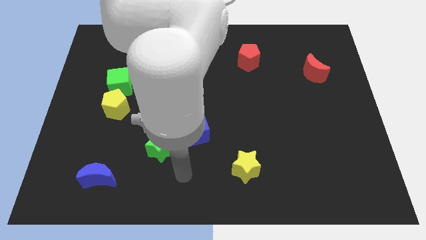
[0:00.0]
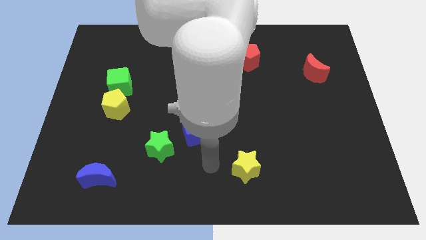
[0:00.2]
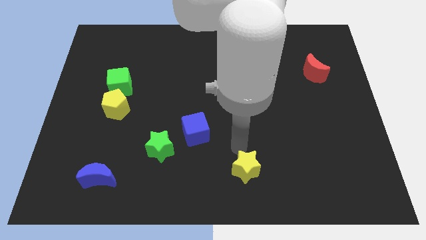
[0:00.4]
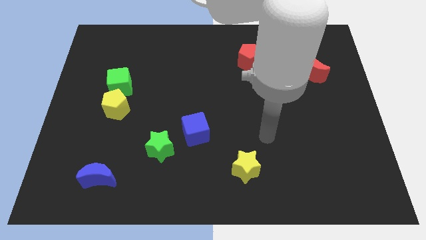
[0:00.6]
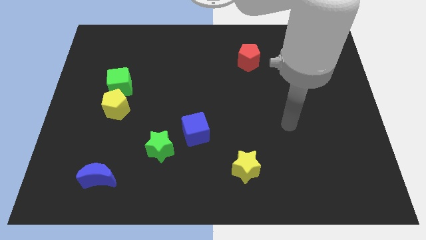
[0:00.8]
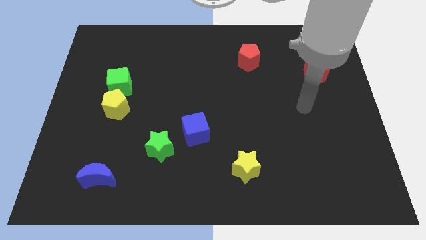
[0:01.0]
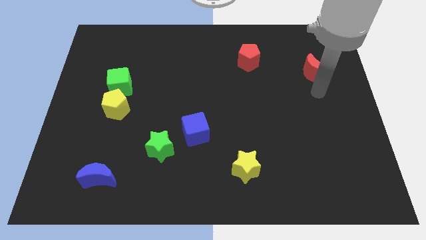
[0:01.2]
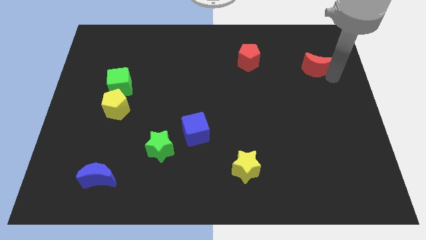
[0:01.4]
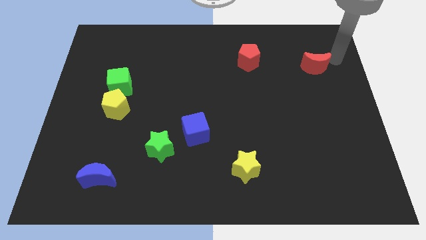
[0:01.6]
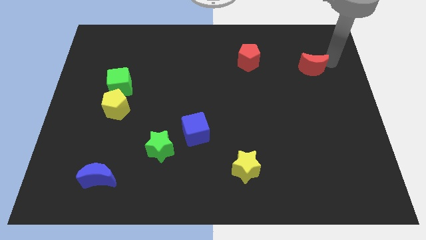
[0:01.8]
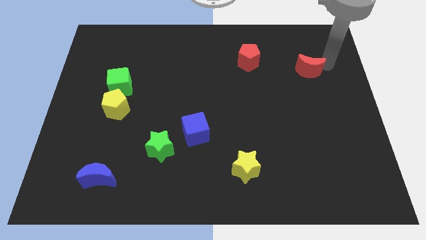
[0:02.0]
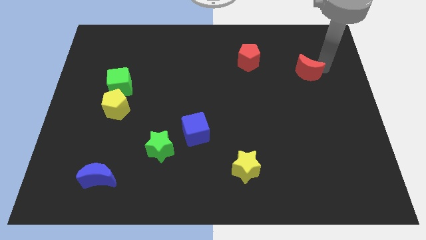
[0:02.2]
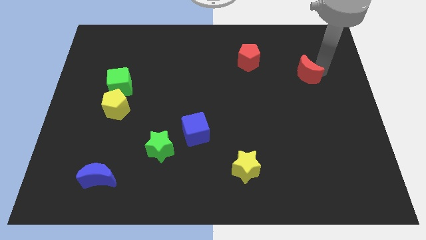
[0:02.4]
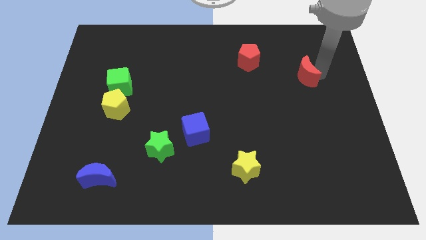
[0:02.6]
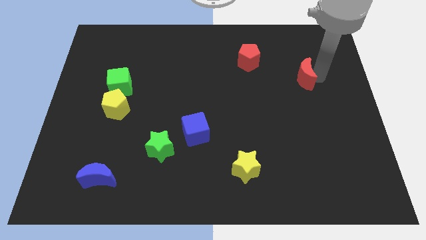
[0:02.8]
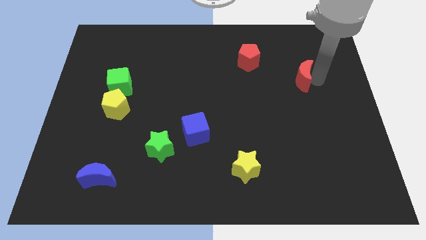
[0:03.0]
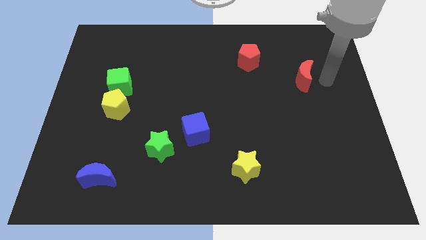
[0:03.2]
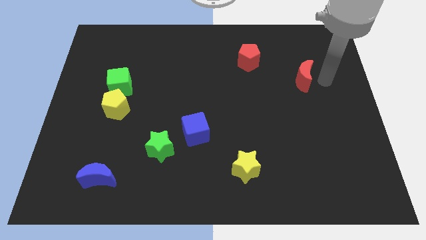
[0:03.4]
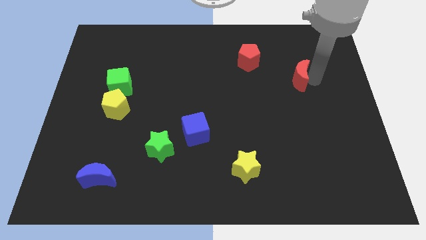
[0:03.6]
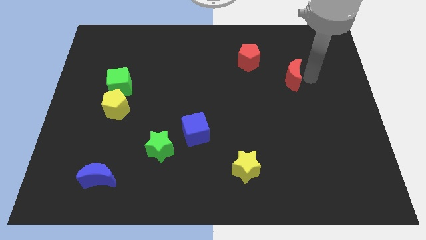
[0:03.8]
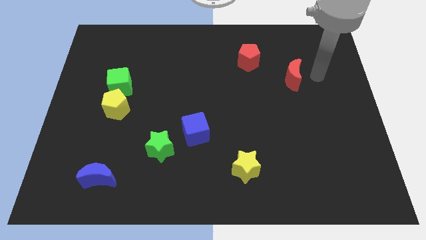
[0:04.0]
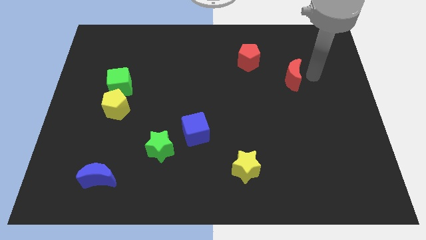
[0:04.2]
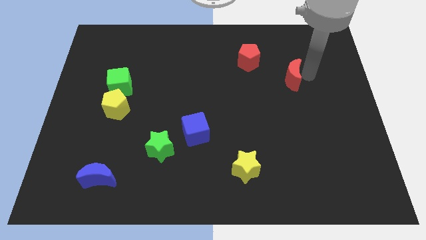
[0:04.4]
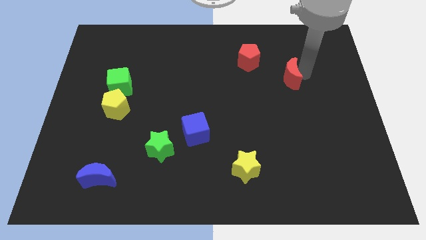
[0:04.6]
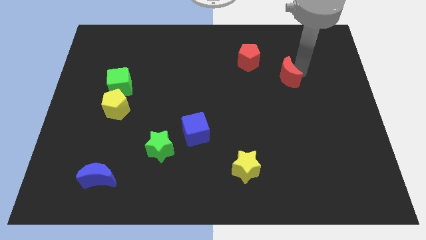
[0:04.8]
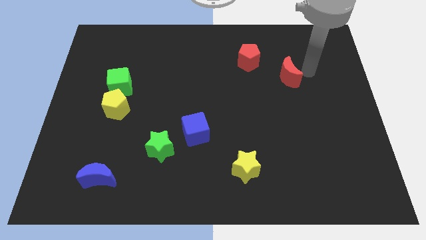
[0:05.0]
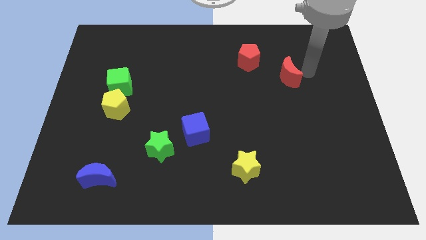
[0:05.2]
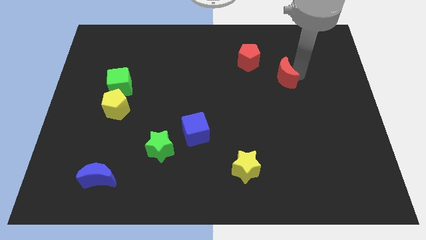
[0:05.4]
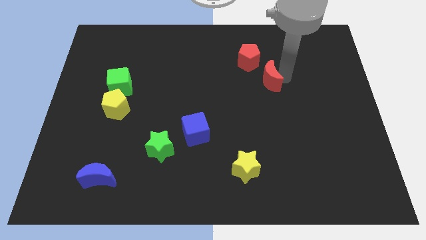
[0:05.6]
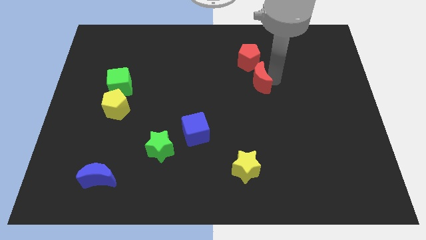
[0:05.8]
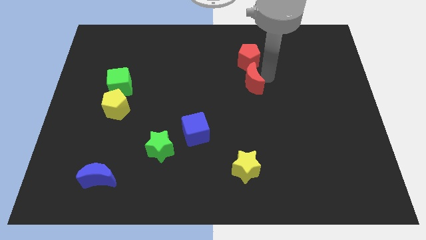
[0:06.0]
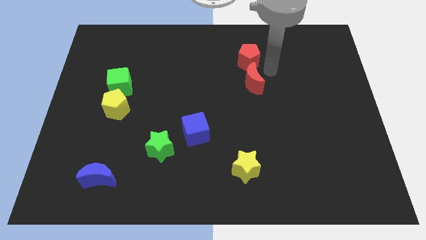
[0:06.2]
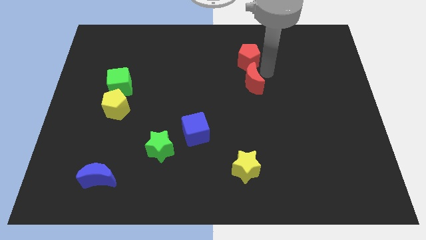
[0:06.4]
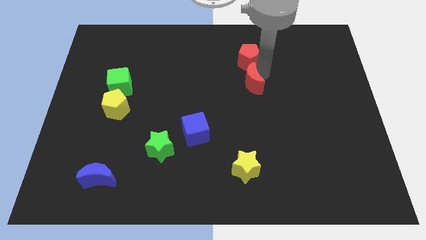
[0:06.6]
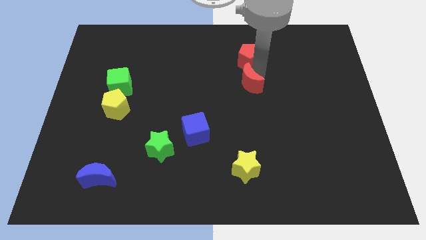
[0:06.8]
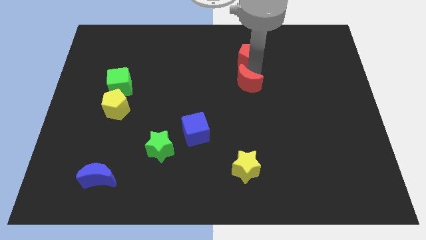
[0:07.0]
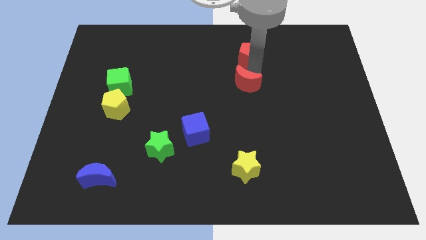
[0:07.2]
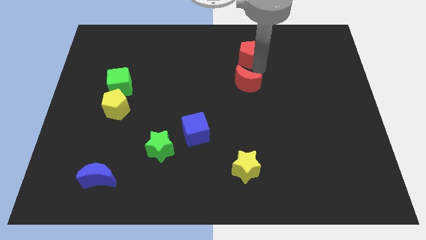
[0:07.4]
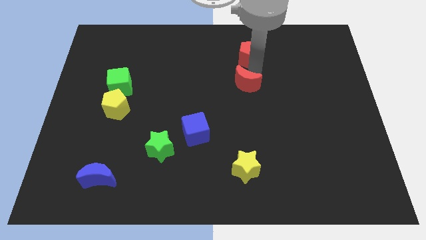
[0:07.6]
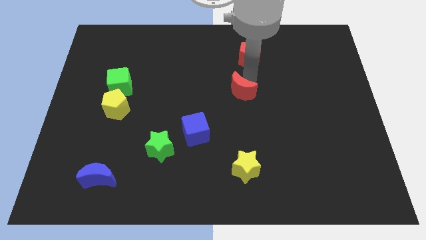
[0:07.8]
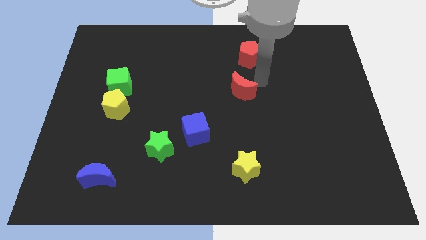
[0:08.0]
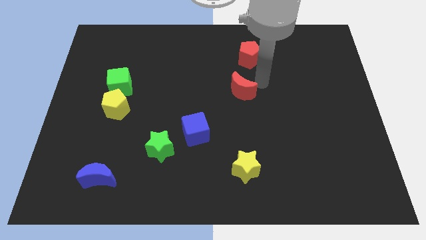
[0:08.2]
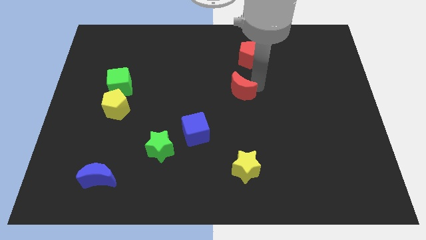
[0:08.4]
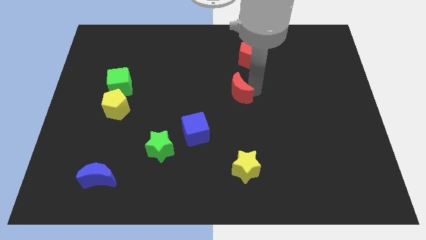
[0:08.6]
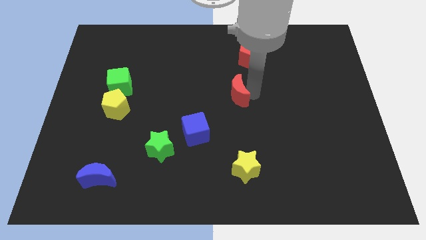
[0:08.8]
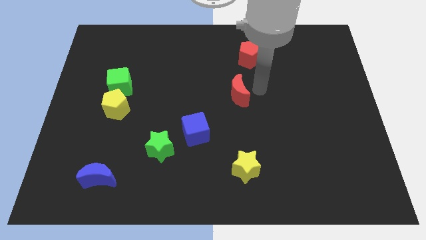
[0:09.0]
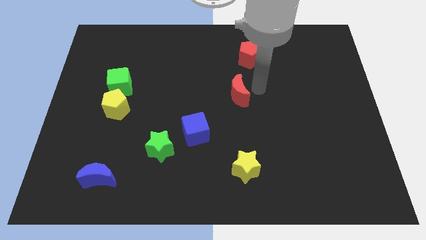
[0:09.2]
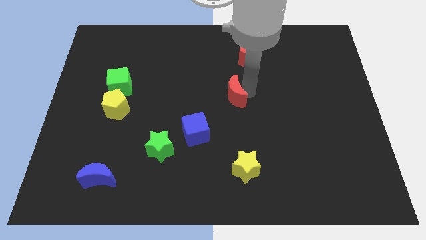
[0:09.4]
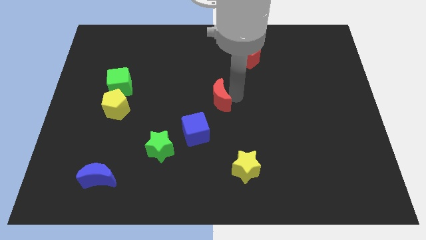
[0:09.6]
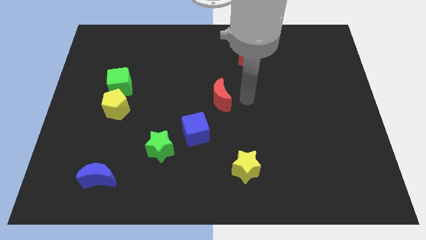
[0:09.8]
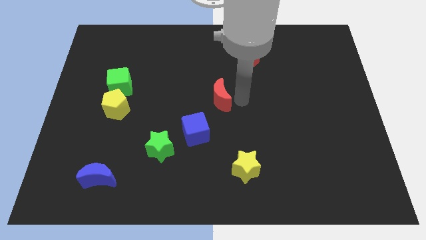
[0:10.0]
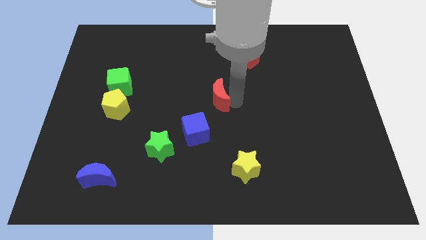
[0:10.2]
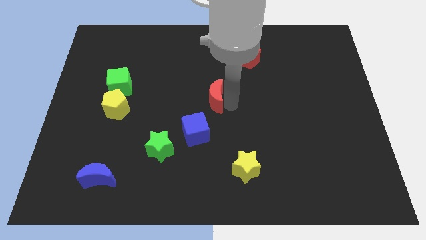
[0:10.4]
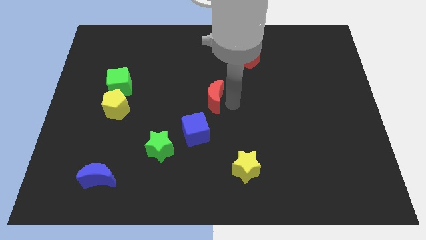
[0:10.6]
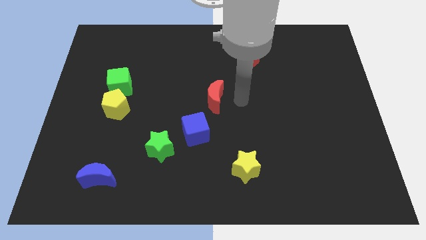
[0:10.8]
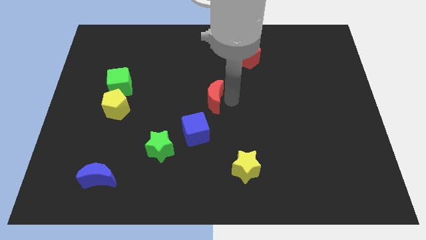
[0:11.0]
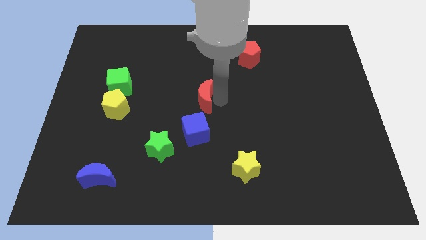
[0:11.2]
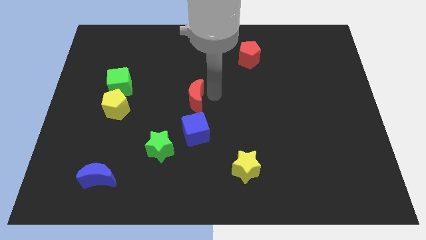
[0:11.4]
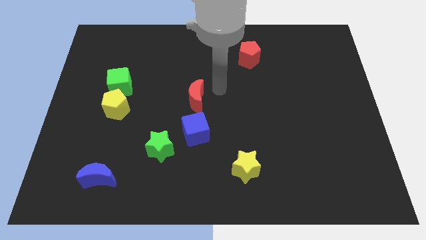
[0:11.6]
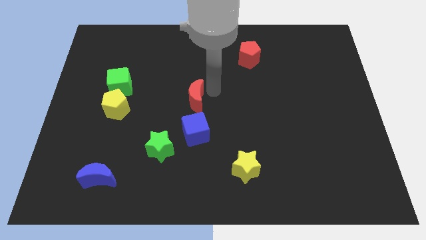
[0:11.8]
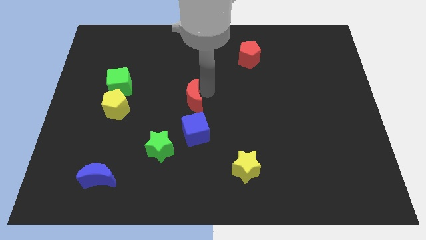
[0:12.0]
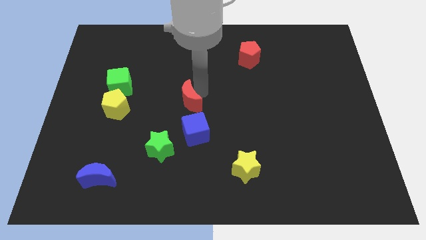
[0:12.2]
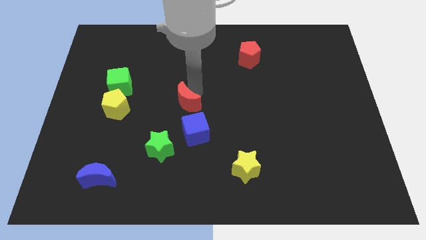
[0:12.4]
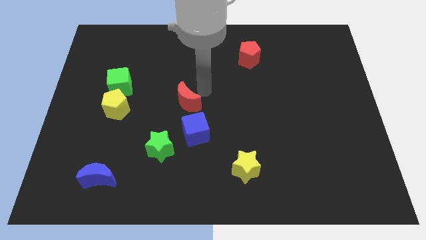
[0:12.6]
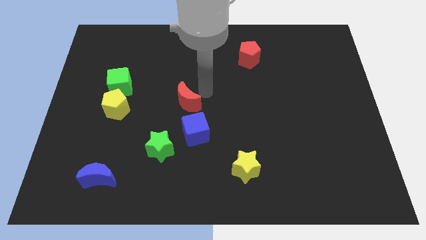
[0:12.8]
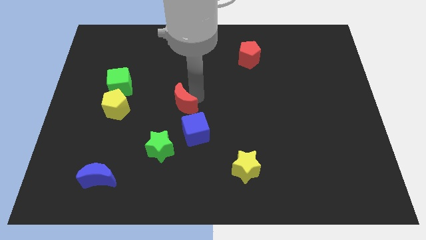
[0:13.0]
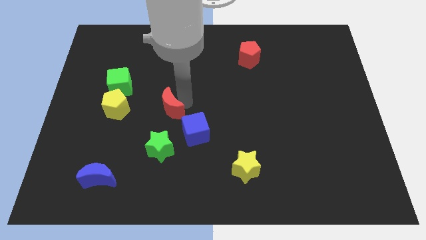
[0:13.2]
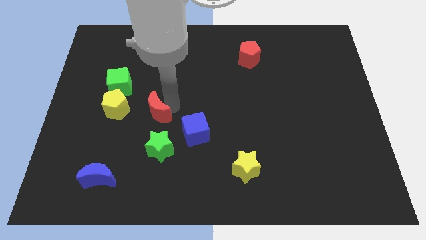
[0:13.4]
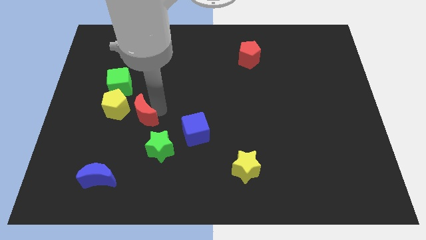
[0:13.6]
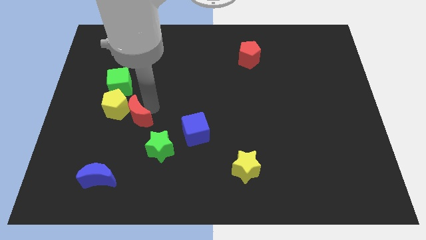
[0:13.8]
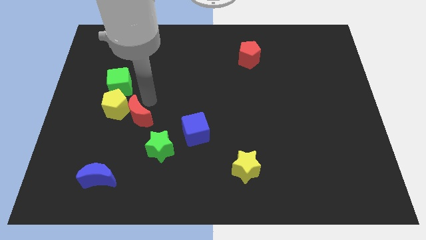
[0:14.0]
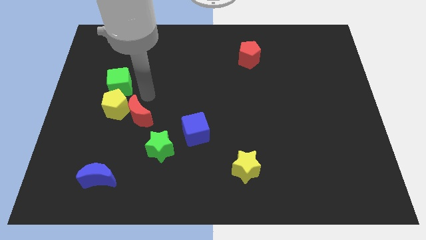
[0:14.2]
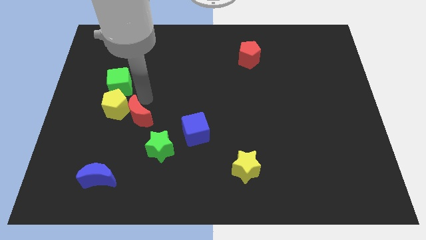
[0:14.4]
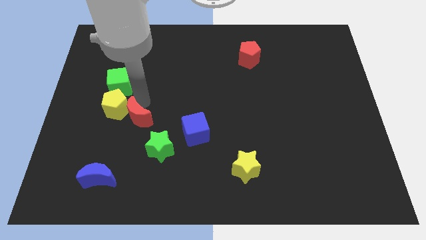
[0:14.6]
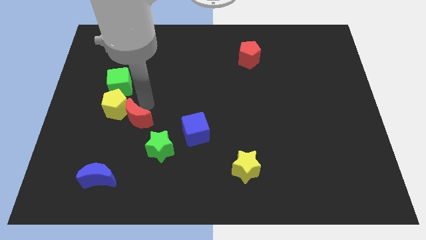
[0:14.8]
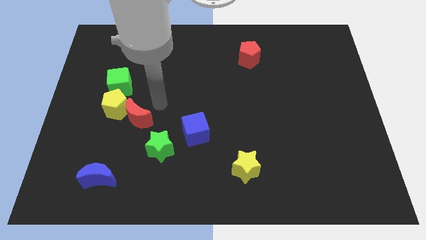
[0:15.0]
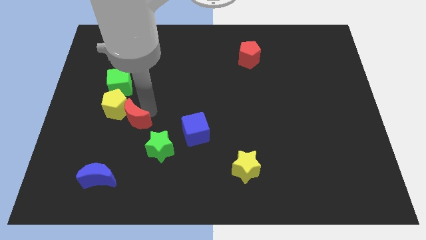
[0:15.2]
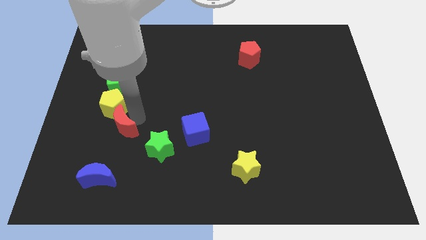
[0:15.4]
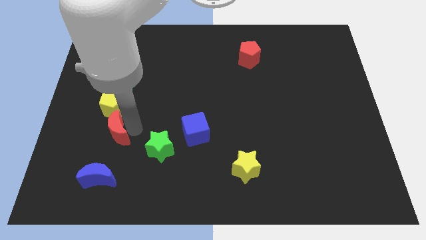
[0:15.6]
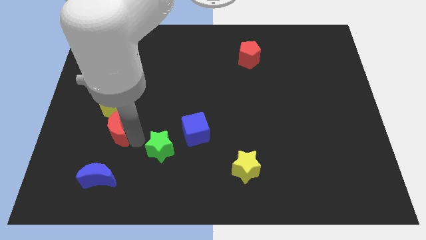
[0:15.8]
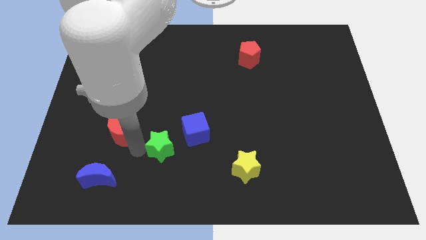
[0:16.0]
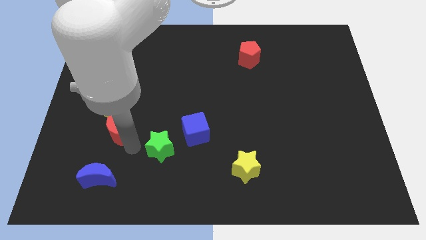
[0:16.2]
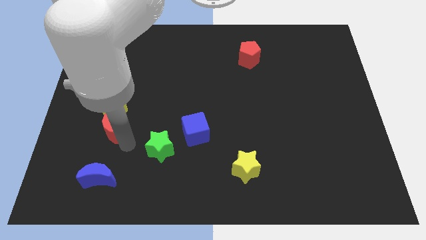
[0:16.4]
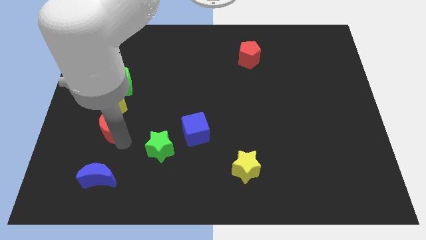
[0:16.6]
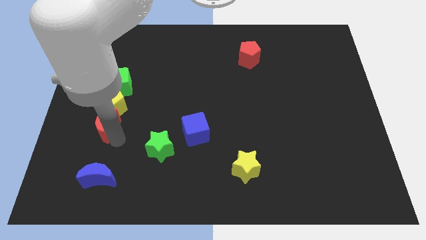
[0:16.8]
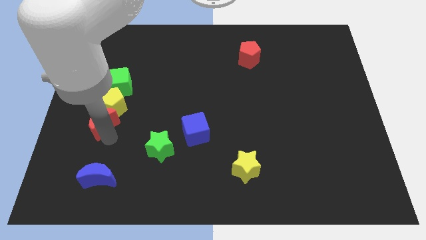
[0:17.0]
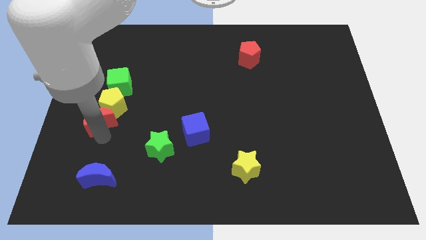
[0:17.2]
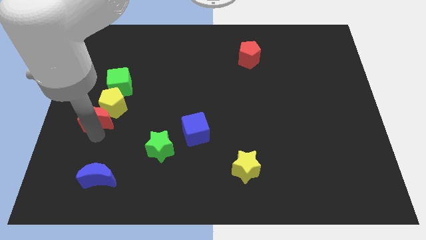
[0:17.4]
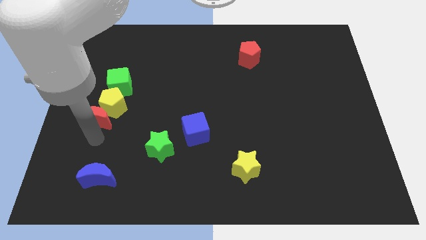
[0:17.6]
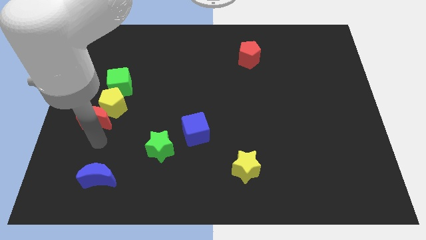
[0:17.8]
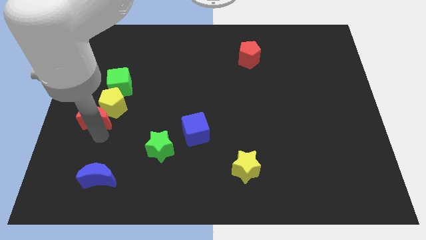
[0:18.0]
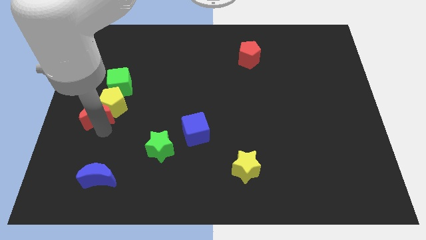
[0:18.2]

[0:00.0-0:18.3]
put the red moon to the bottom left of the green cube
